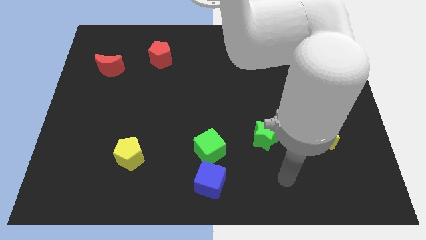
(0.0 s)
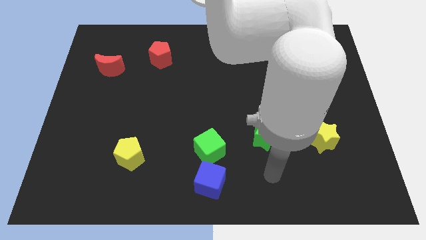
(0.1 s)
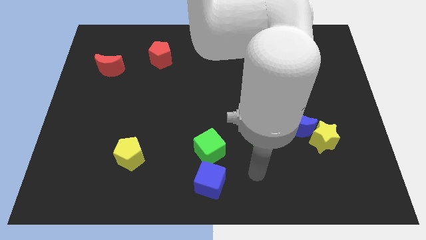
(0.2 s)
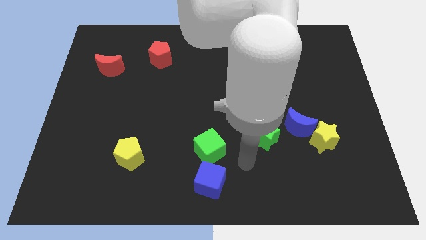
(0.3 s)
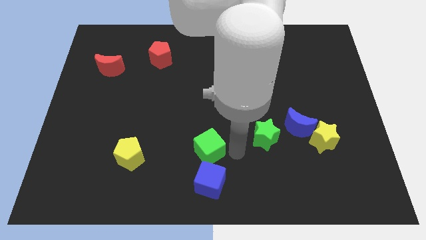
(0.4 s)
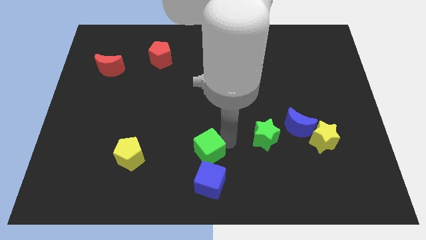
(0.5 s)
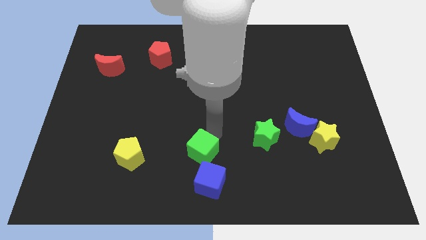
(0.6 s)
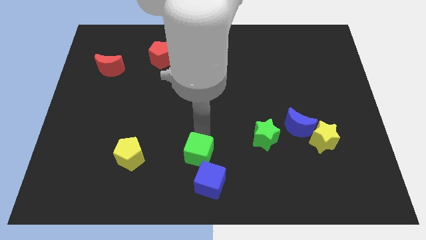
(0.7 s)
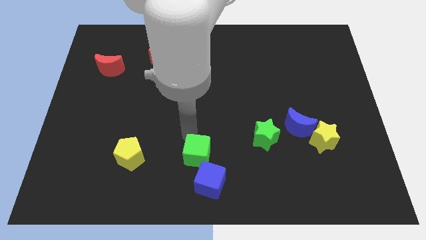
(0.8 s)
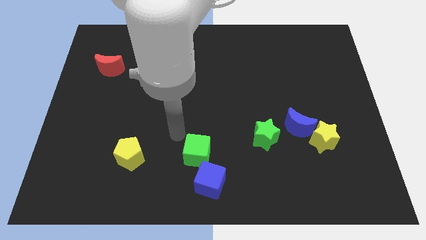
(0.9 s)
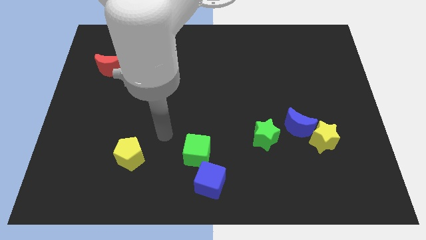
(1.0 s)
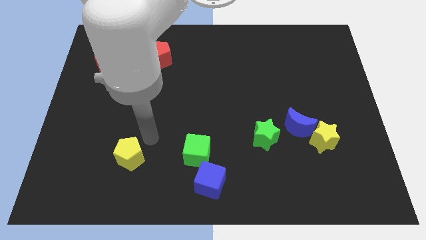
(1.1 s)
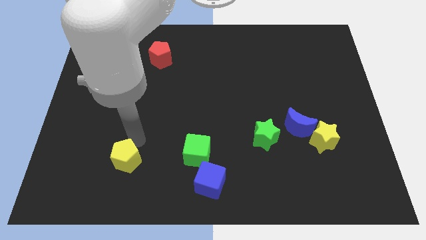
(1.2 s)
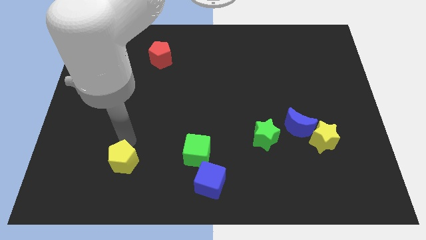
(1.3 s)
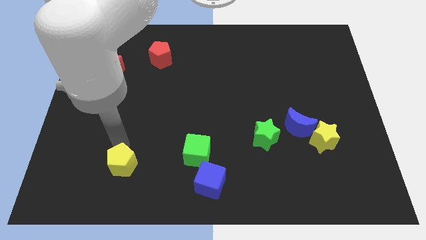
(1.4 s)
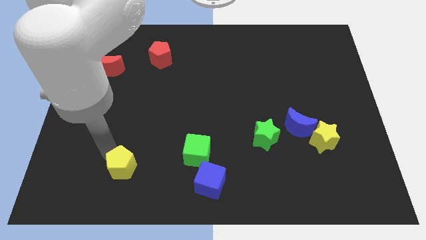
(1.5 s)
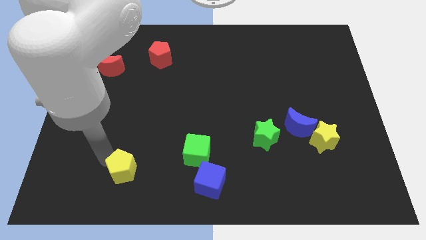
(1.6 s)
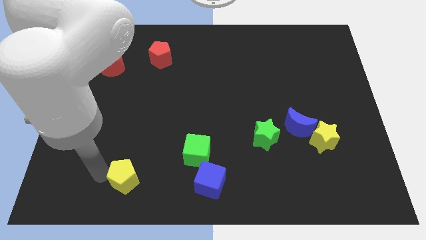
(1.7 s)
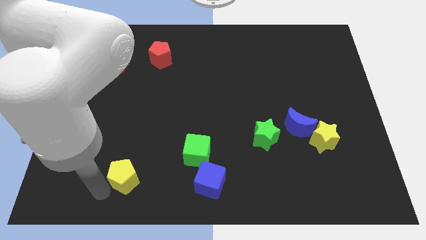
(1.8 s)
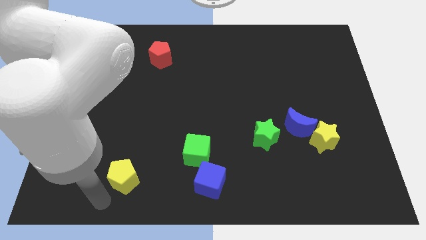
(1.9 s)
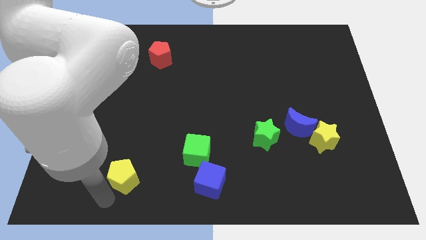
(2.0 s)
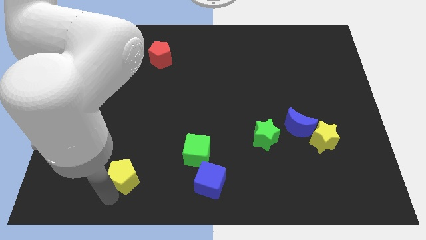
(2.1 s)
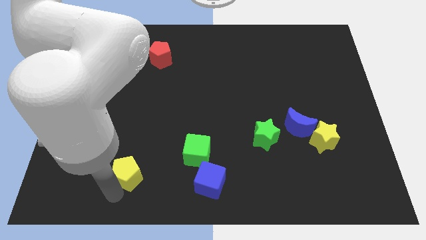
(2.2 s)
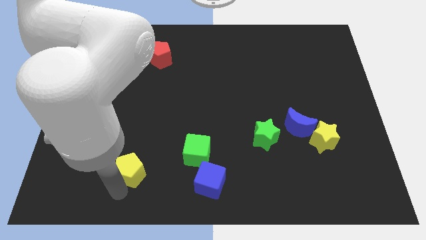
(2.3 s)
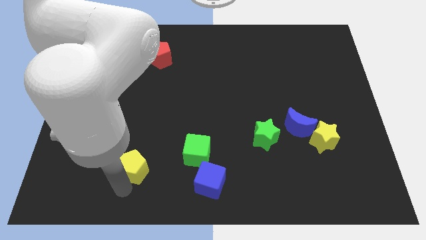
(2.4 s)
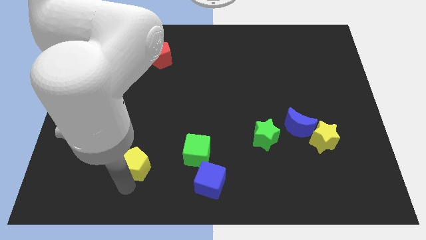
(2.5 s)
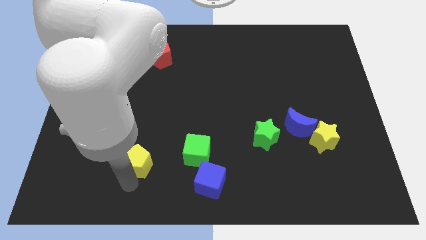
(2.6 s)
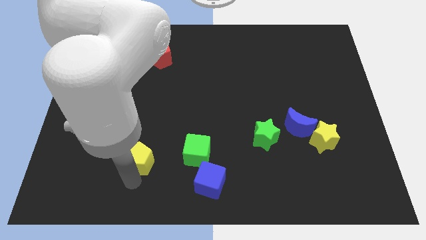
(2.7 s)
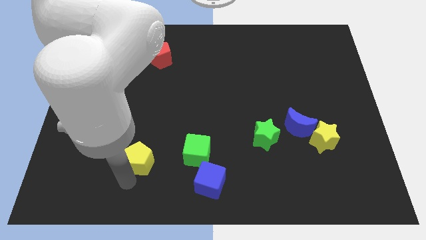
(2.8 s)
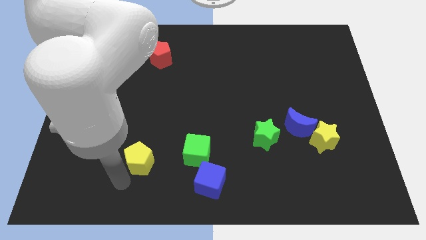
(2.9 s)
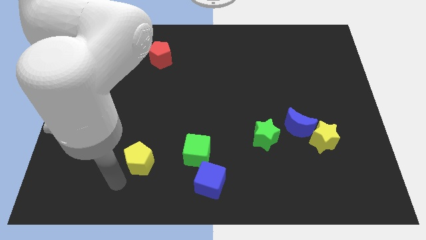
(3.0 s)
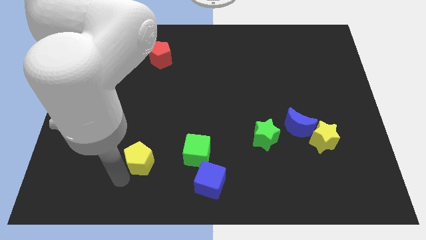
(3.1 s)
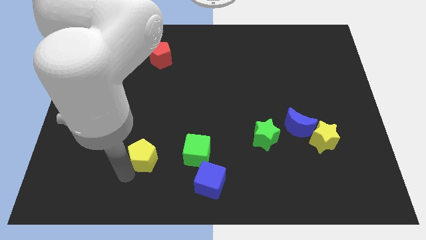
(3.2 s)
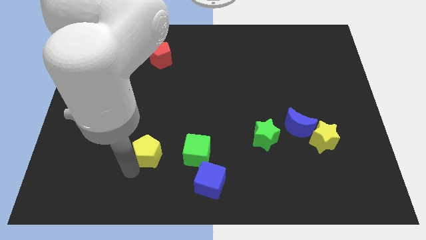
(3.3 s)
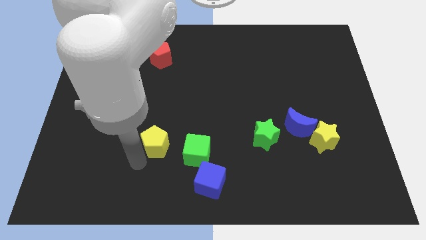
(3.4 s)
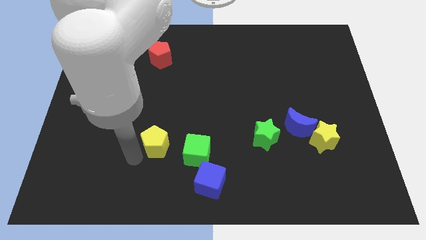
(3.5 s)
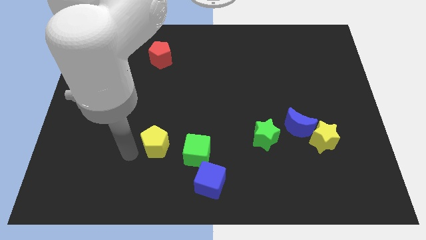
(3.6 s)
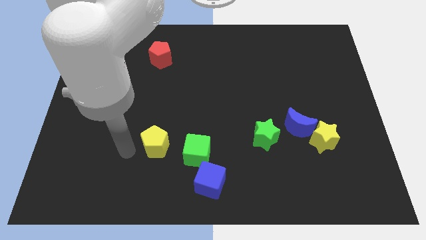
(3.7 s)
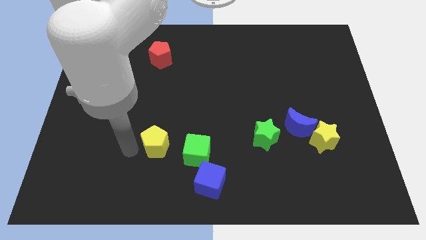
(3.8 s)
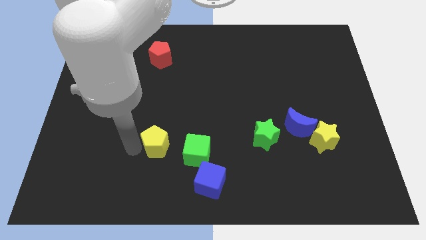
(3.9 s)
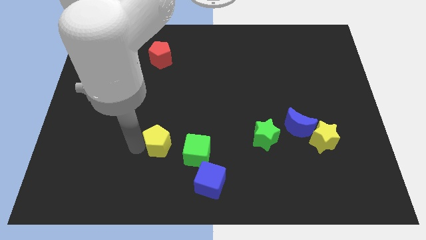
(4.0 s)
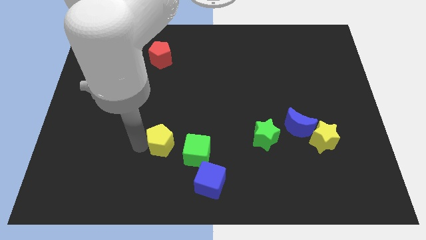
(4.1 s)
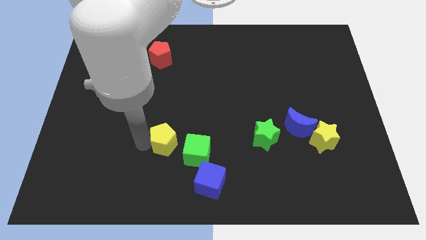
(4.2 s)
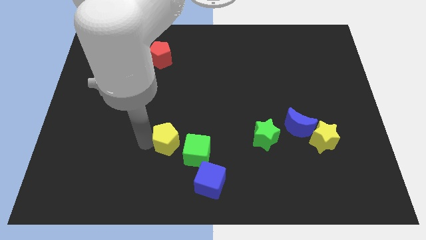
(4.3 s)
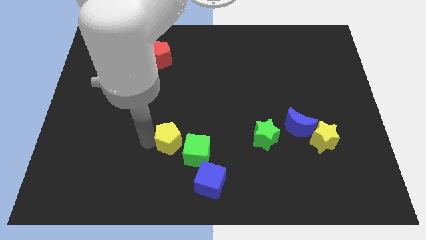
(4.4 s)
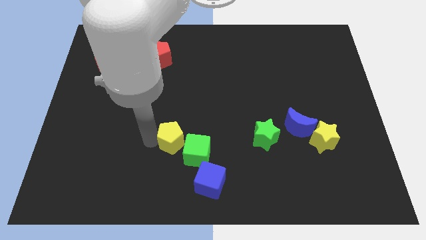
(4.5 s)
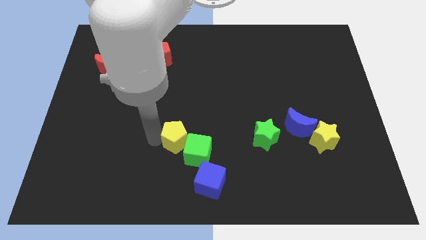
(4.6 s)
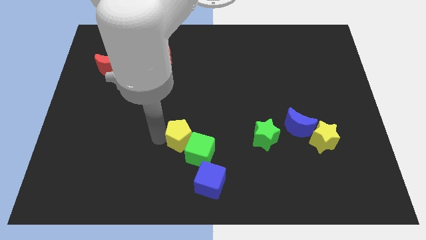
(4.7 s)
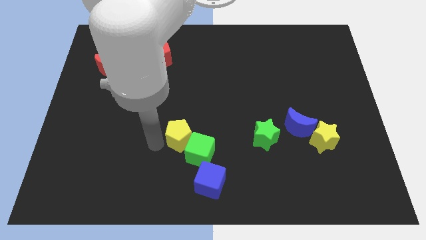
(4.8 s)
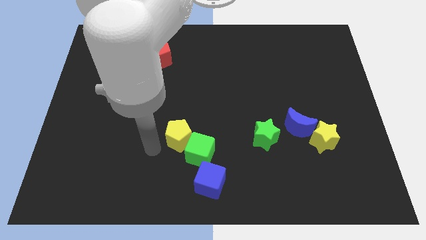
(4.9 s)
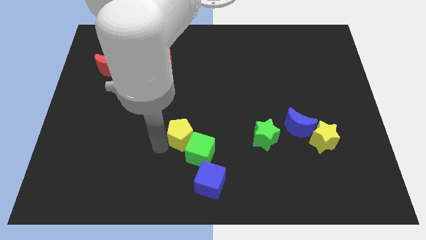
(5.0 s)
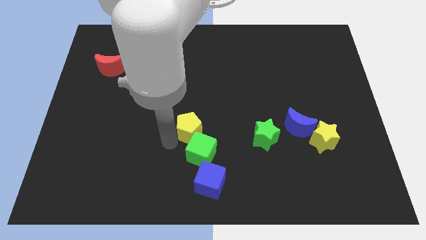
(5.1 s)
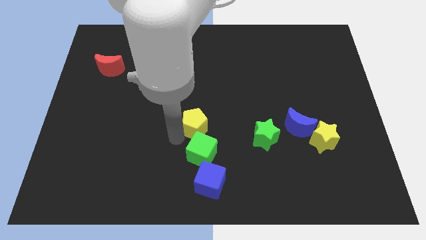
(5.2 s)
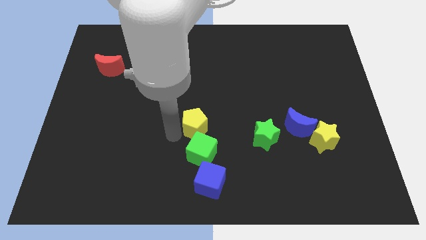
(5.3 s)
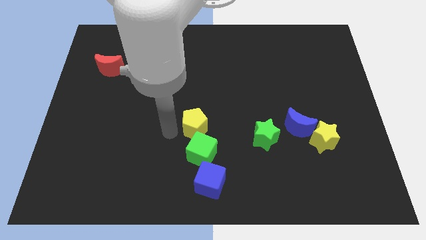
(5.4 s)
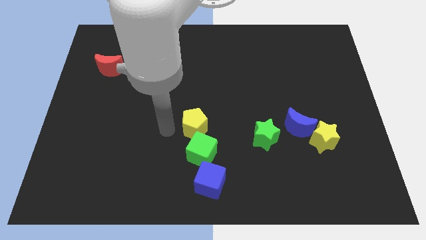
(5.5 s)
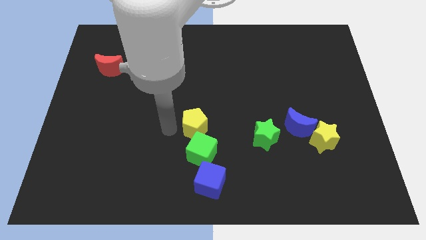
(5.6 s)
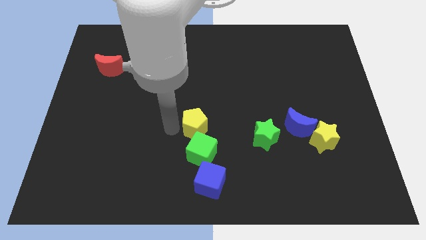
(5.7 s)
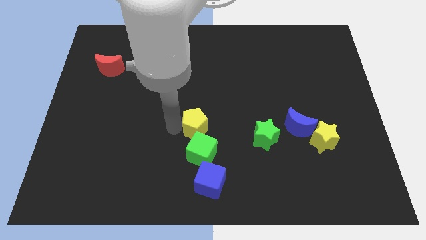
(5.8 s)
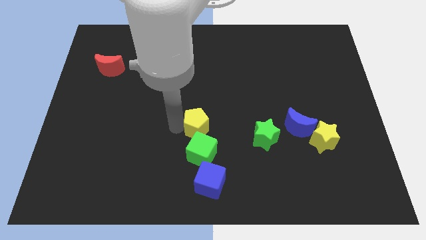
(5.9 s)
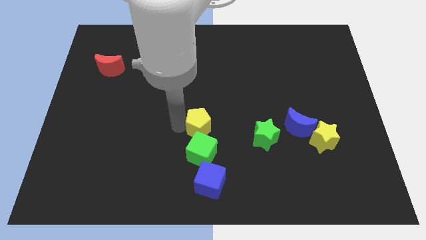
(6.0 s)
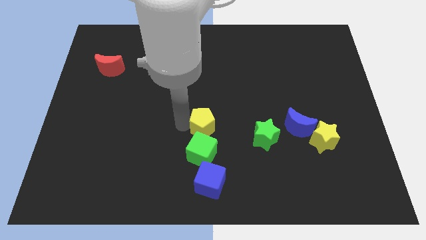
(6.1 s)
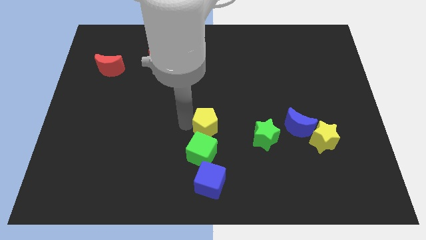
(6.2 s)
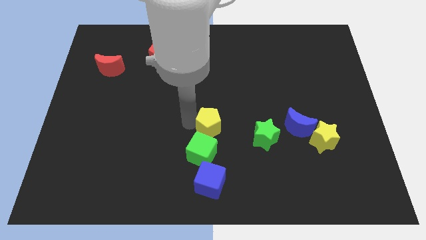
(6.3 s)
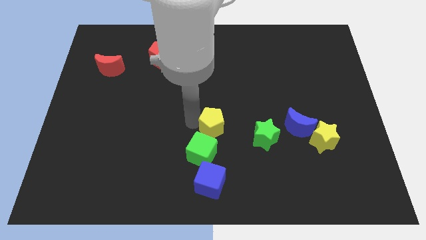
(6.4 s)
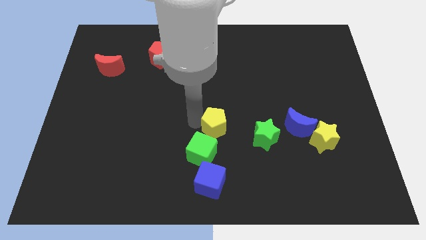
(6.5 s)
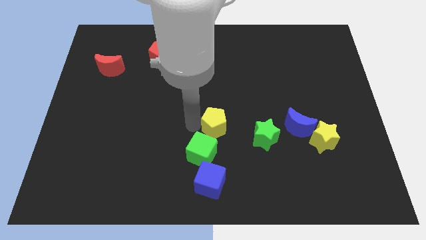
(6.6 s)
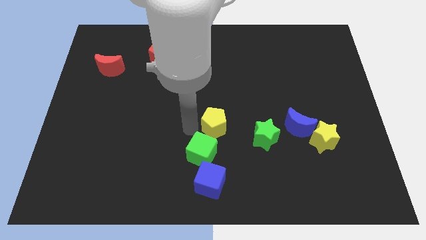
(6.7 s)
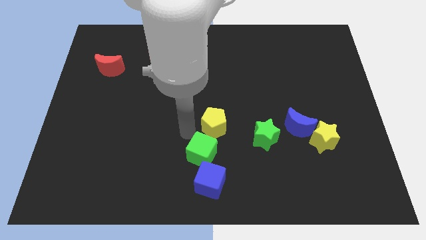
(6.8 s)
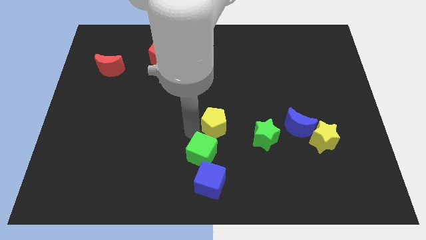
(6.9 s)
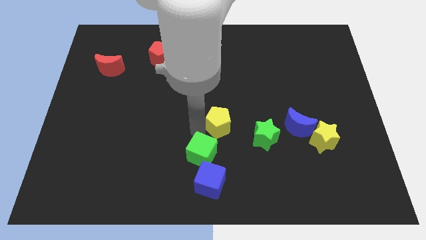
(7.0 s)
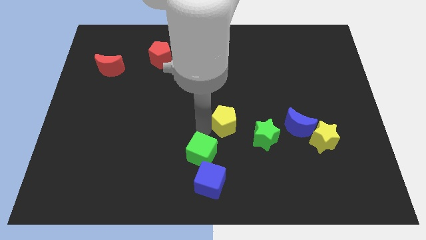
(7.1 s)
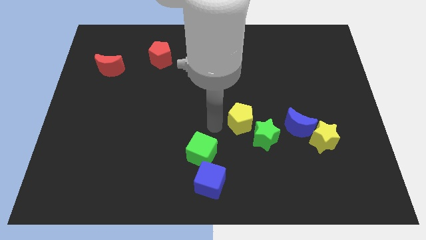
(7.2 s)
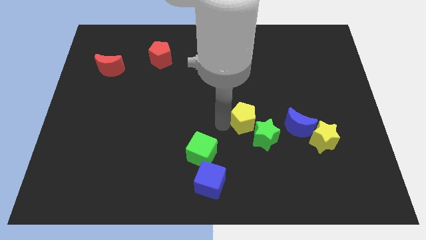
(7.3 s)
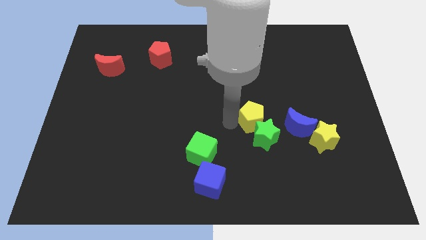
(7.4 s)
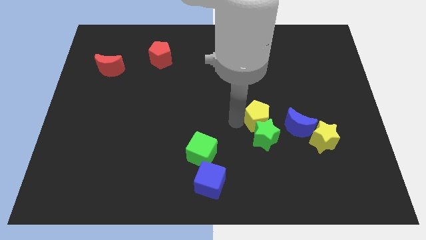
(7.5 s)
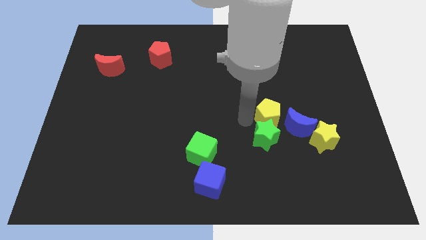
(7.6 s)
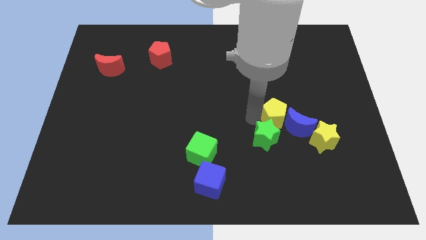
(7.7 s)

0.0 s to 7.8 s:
put the yellow pentagon towards the blue moon
